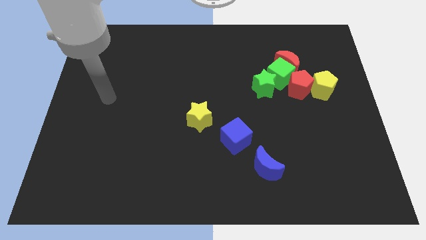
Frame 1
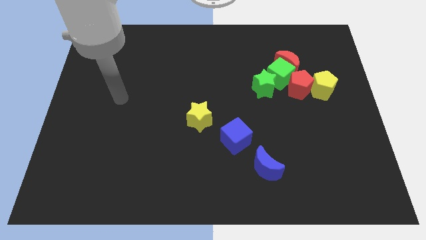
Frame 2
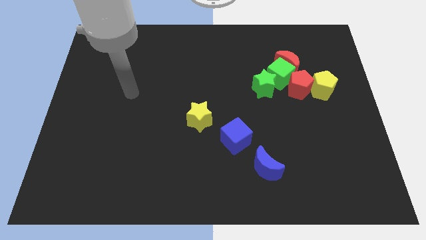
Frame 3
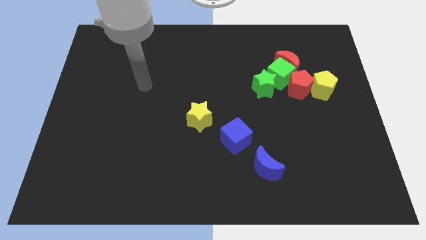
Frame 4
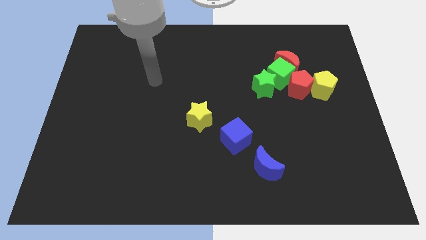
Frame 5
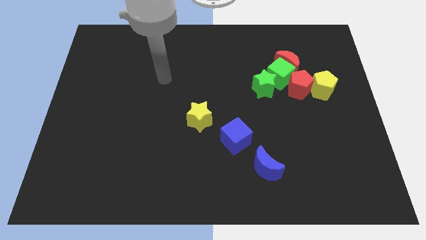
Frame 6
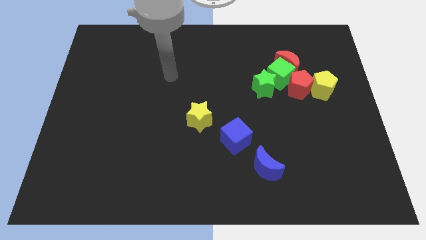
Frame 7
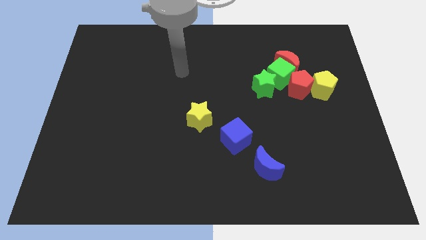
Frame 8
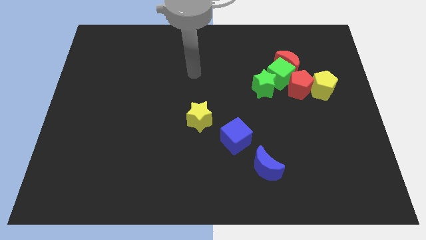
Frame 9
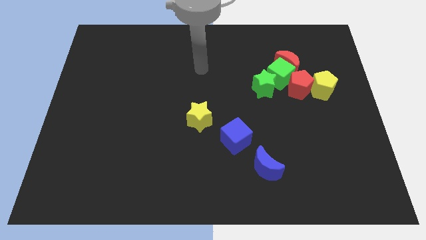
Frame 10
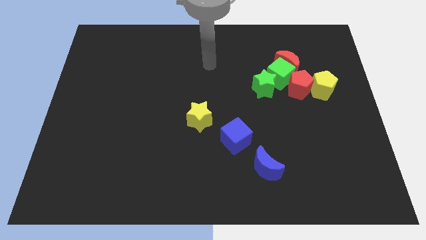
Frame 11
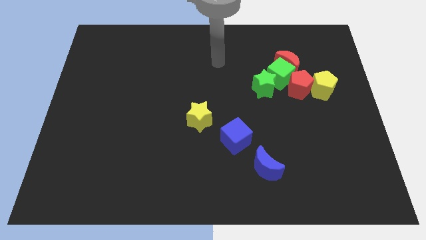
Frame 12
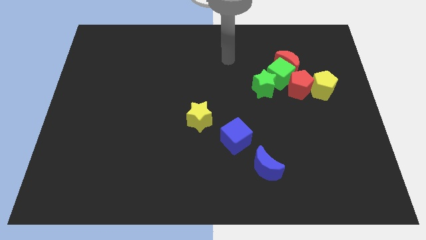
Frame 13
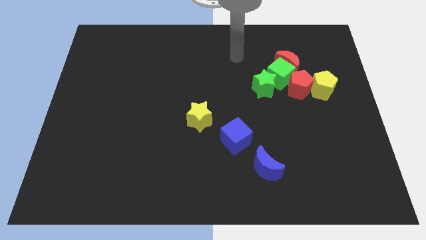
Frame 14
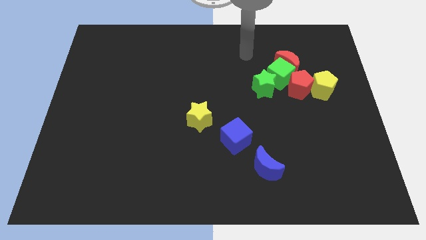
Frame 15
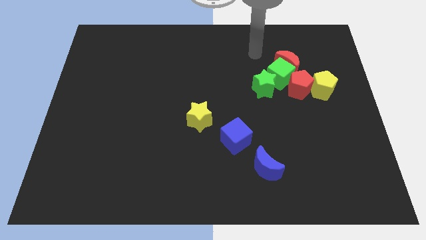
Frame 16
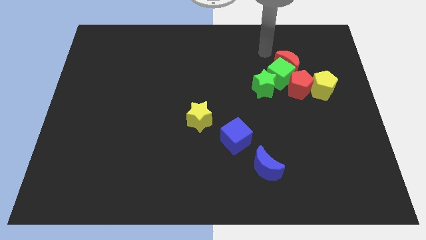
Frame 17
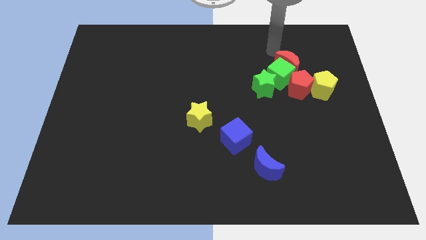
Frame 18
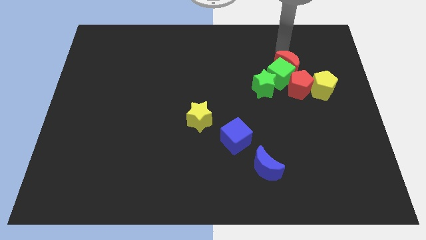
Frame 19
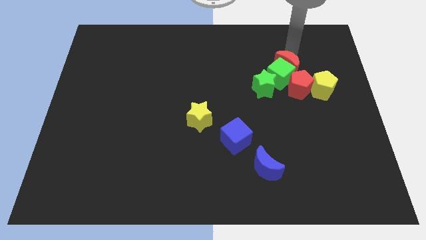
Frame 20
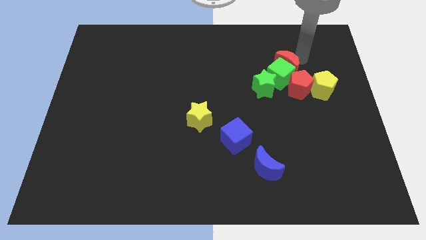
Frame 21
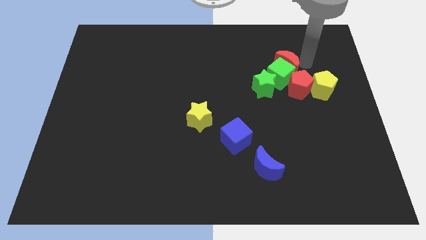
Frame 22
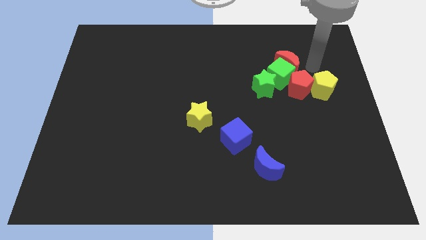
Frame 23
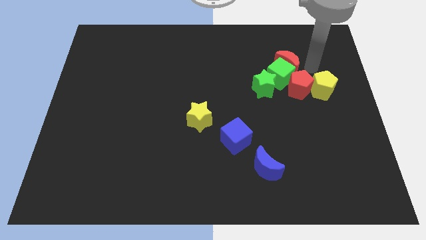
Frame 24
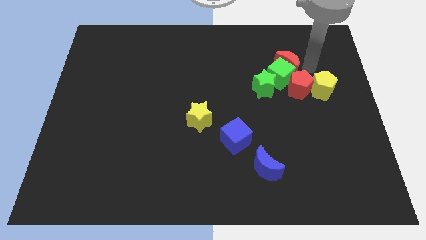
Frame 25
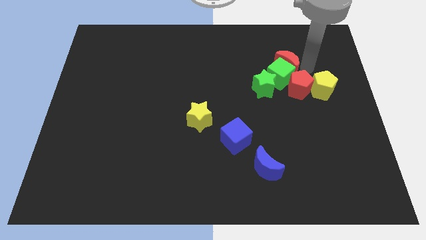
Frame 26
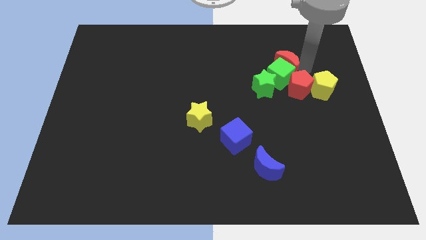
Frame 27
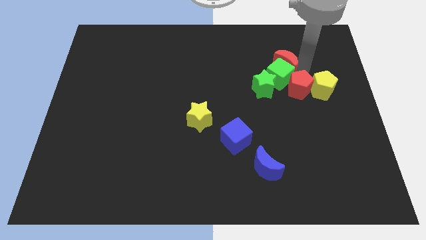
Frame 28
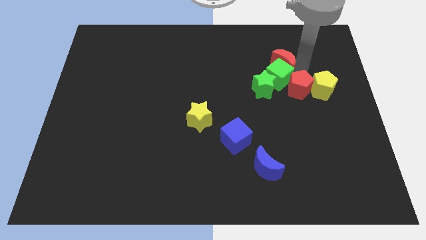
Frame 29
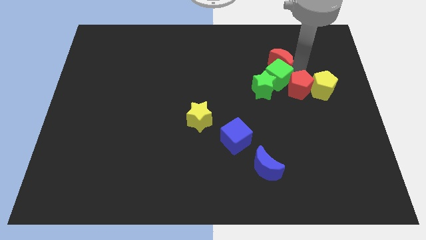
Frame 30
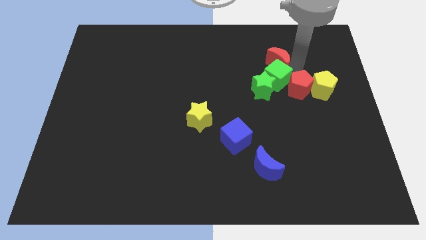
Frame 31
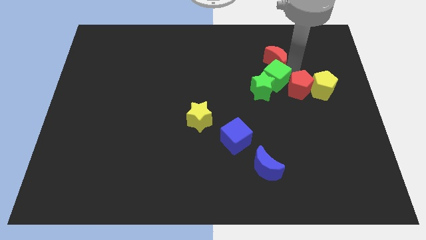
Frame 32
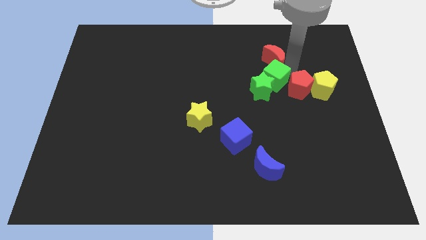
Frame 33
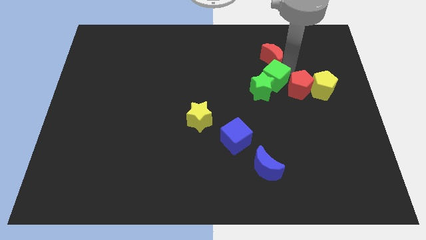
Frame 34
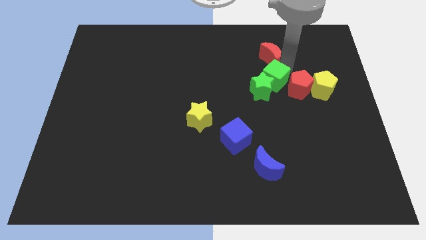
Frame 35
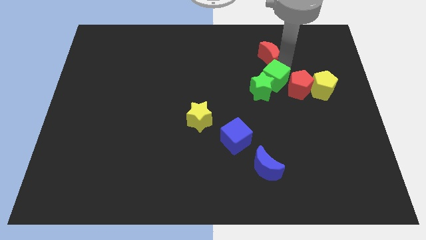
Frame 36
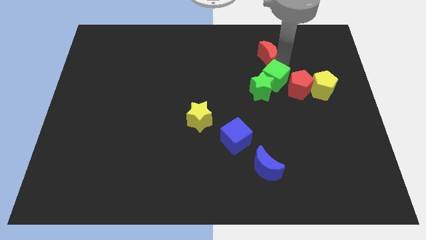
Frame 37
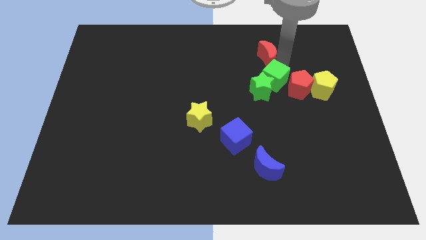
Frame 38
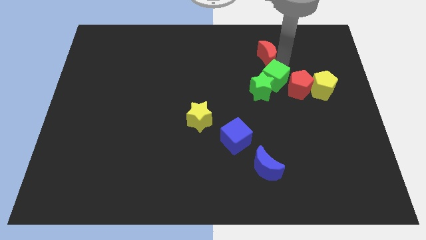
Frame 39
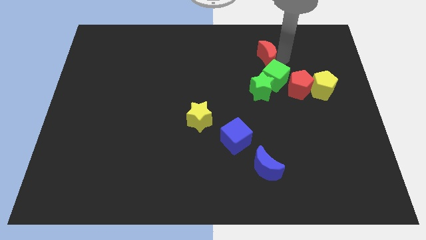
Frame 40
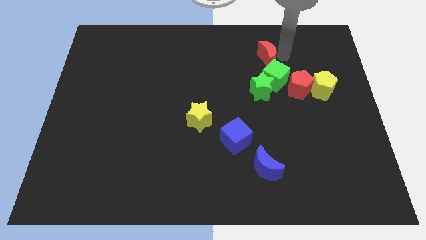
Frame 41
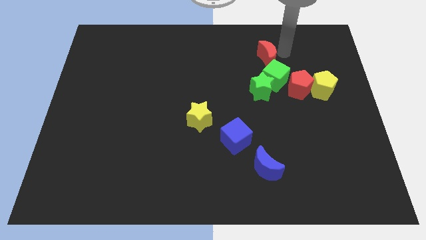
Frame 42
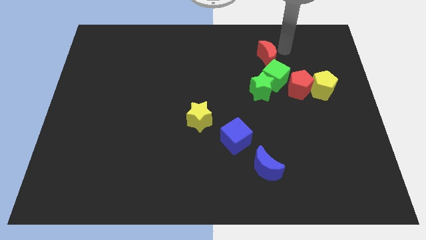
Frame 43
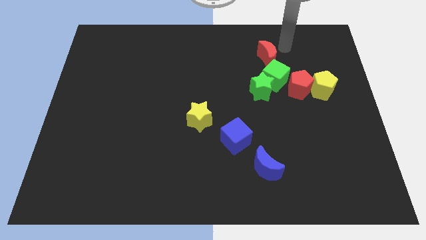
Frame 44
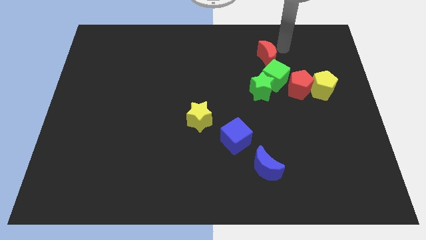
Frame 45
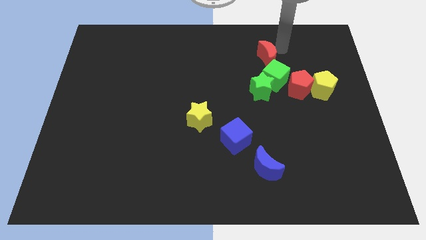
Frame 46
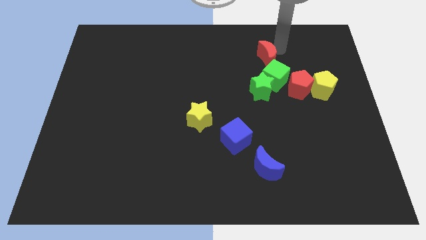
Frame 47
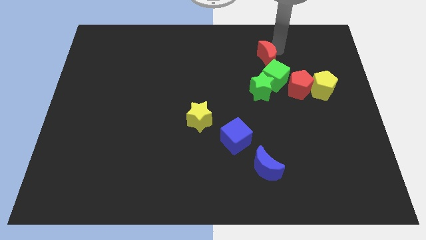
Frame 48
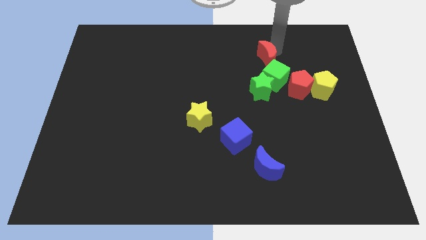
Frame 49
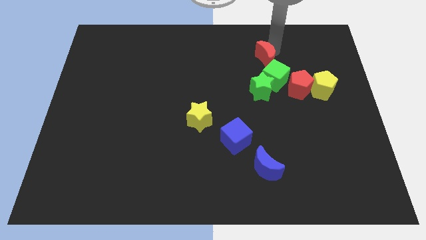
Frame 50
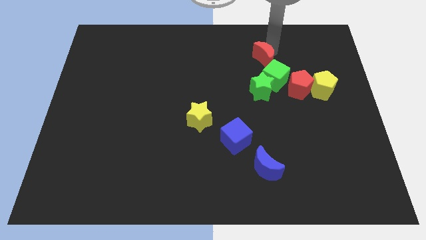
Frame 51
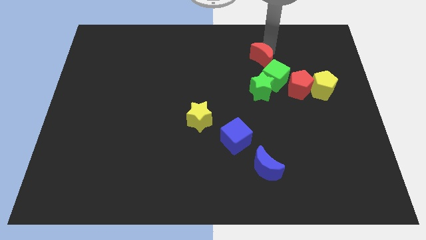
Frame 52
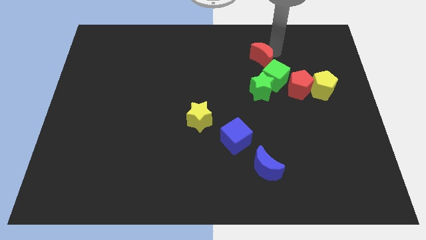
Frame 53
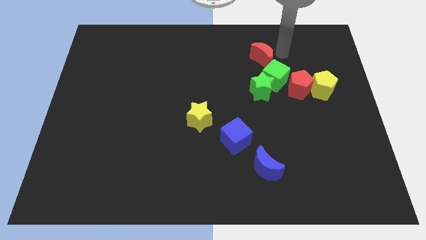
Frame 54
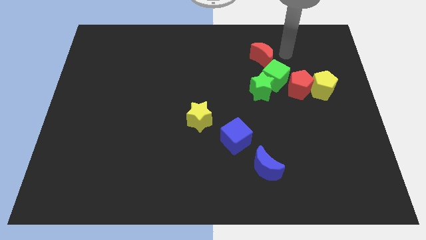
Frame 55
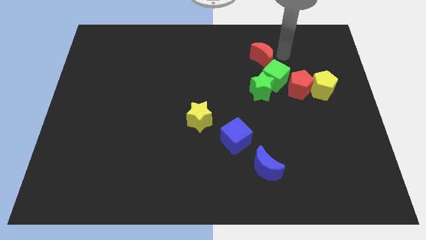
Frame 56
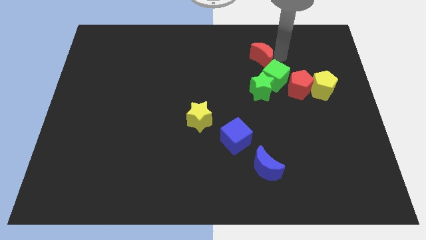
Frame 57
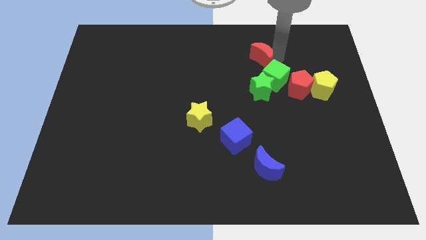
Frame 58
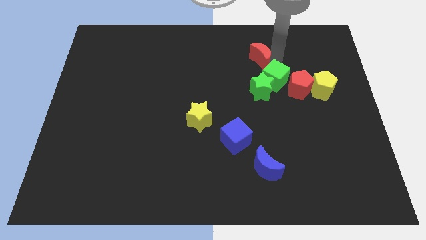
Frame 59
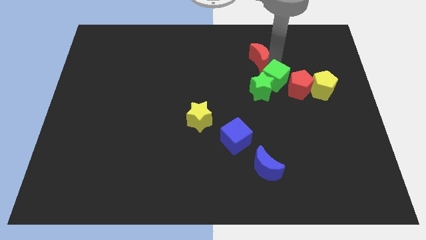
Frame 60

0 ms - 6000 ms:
push the red moon to the left somewhat

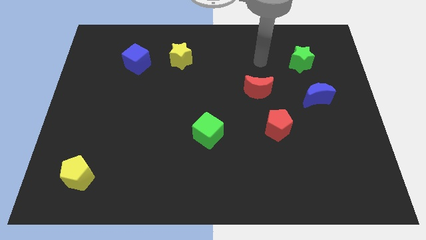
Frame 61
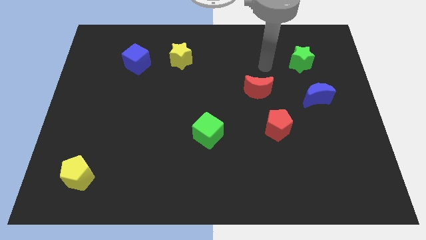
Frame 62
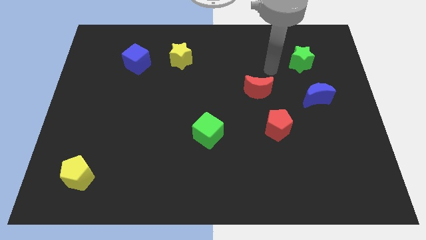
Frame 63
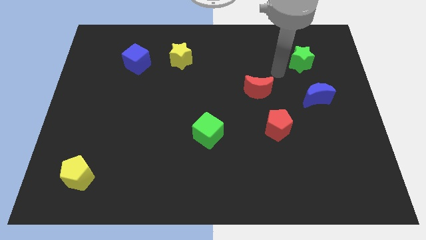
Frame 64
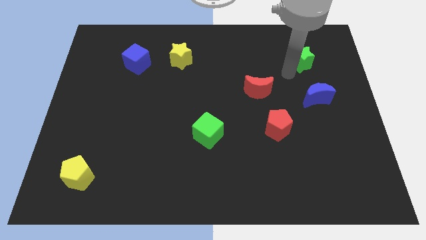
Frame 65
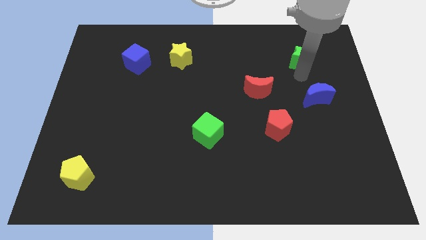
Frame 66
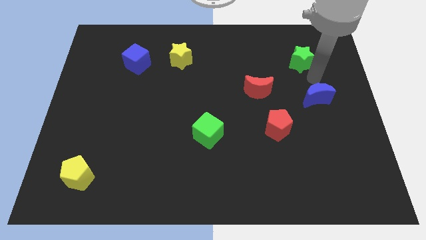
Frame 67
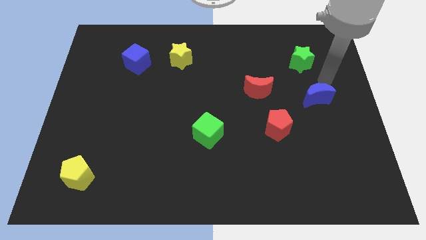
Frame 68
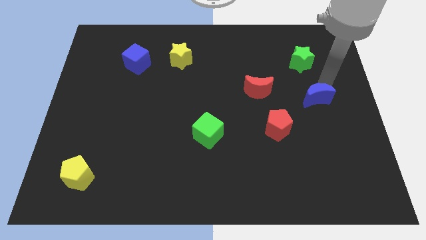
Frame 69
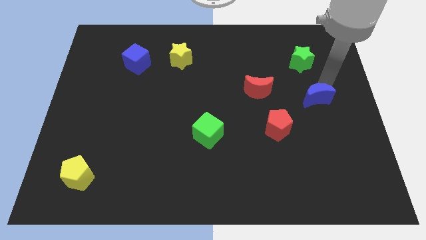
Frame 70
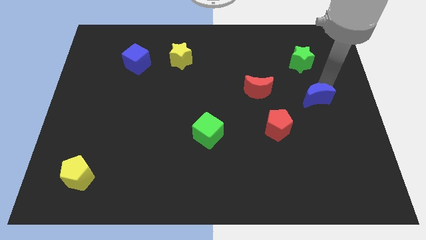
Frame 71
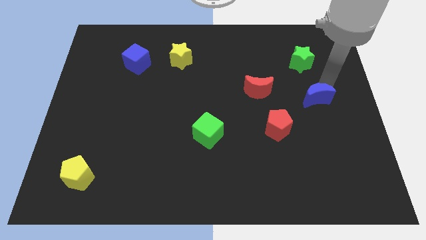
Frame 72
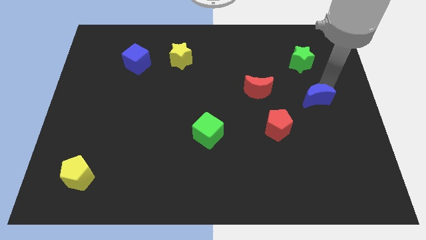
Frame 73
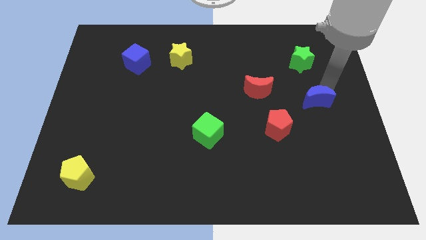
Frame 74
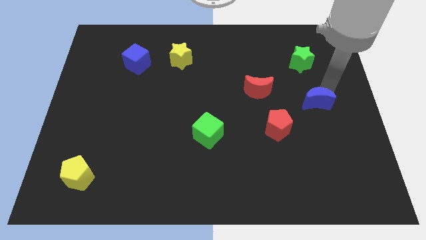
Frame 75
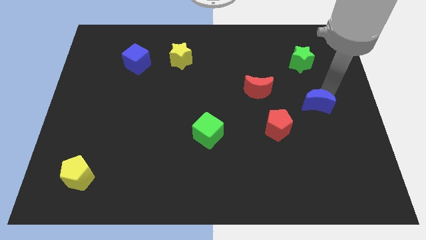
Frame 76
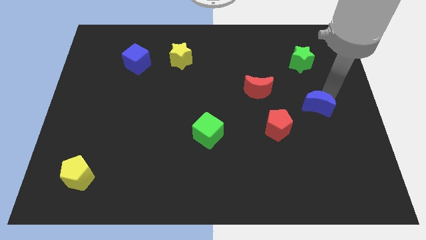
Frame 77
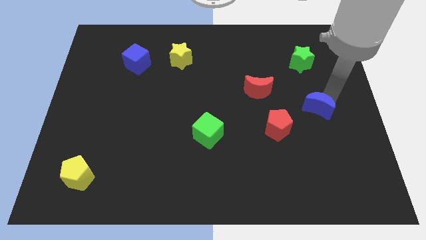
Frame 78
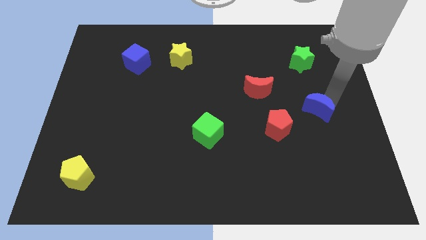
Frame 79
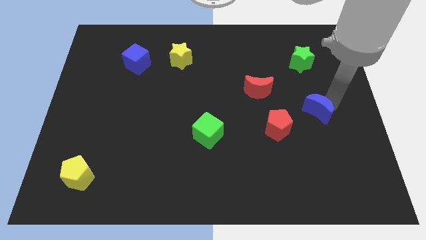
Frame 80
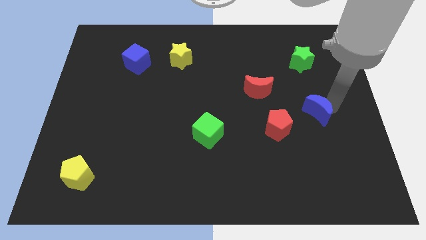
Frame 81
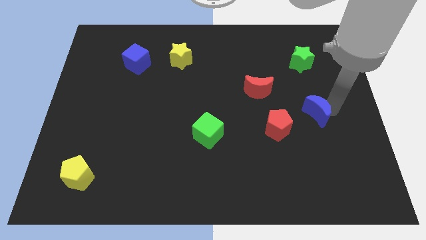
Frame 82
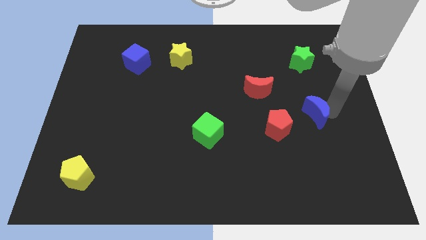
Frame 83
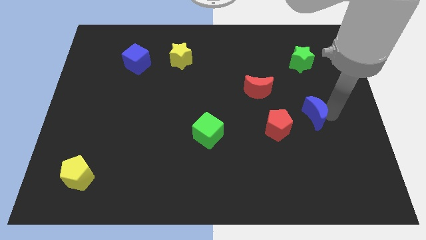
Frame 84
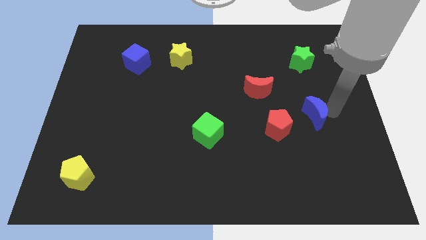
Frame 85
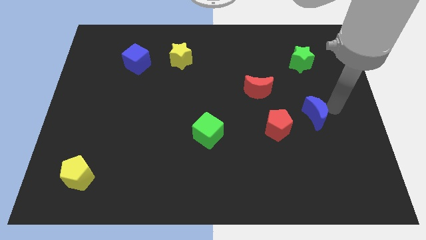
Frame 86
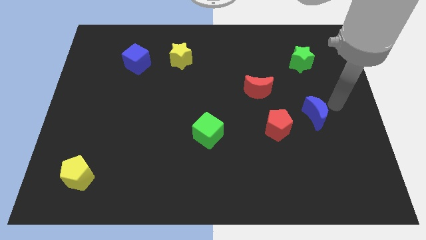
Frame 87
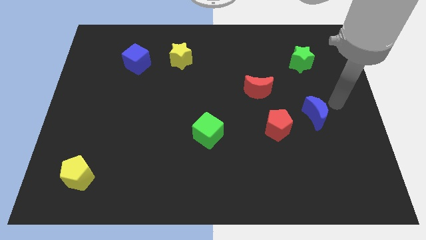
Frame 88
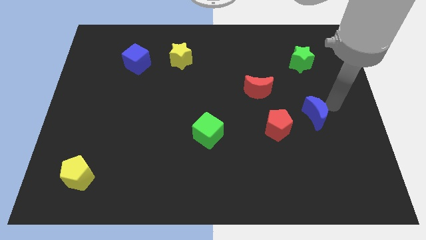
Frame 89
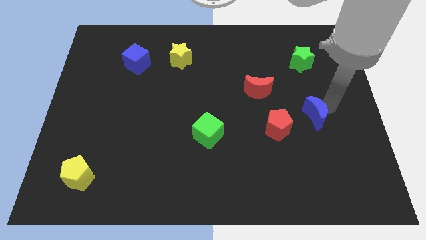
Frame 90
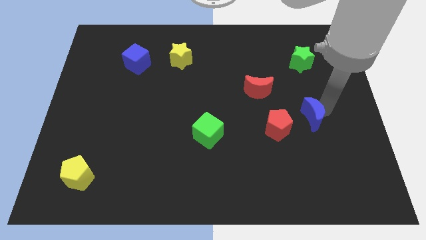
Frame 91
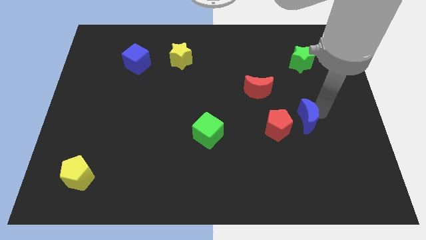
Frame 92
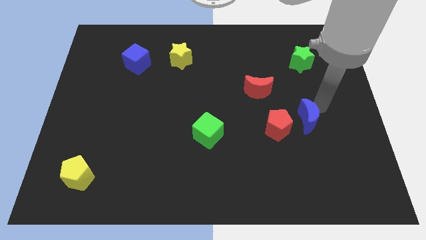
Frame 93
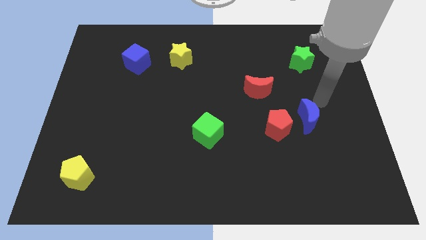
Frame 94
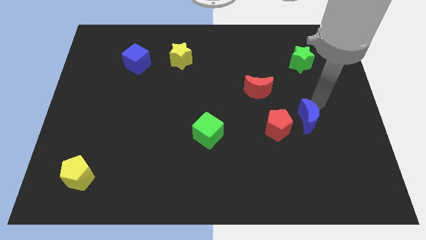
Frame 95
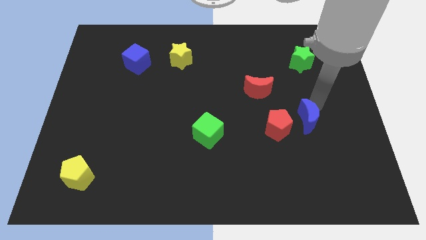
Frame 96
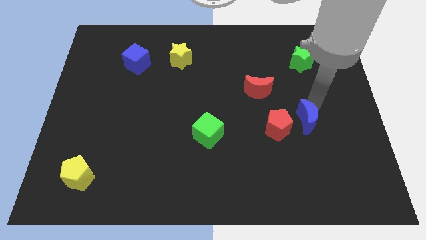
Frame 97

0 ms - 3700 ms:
slide the blue moon a little bit diagonally down and to the left
